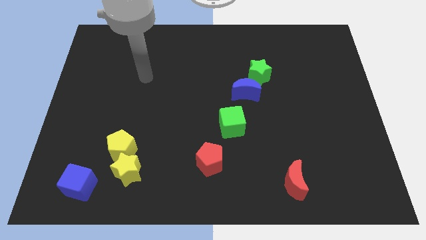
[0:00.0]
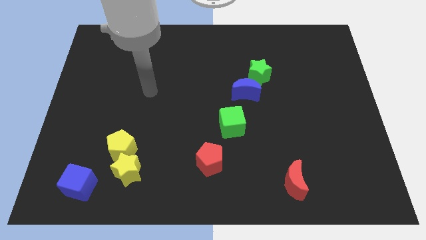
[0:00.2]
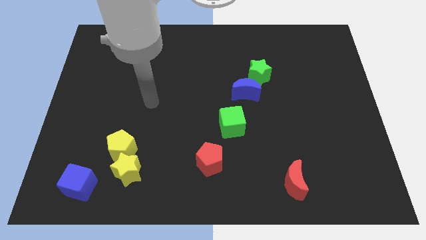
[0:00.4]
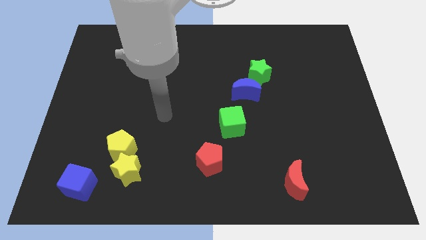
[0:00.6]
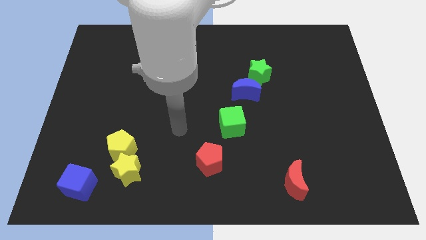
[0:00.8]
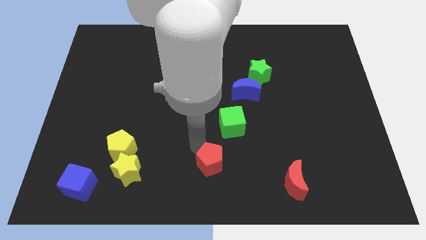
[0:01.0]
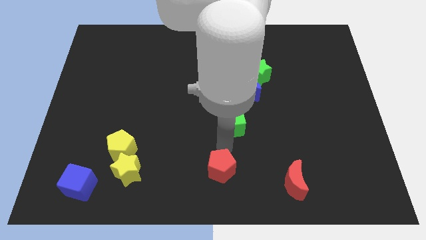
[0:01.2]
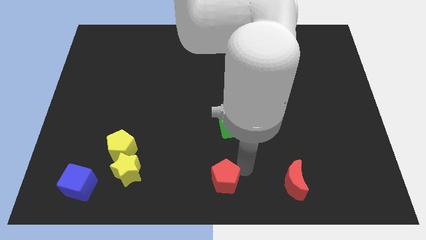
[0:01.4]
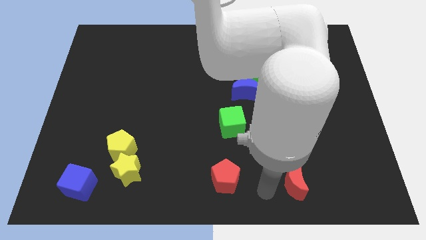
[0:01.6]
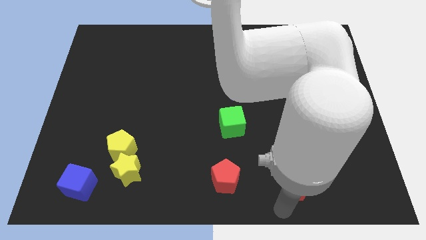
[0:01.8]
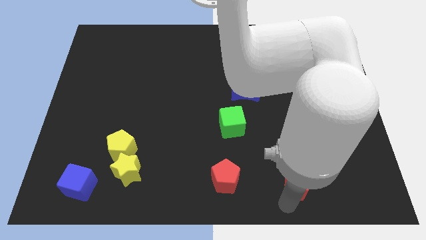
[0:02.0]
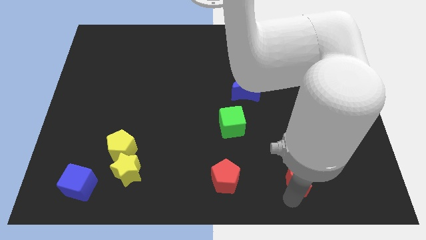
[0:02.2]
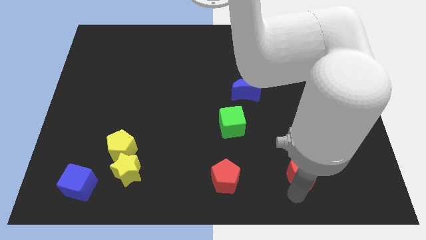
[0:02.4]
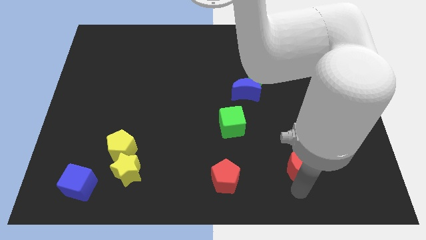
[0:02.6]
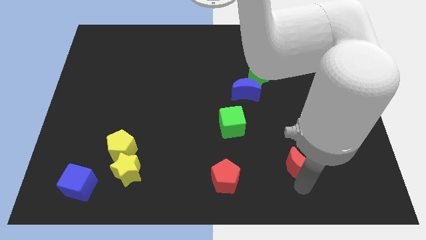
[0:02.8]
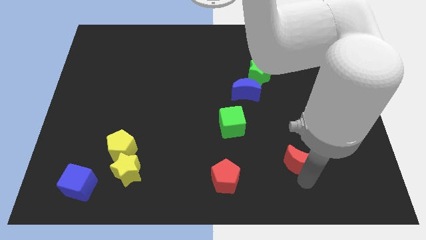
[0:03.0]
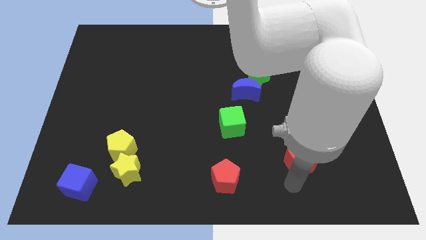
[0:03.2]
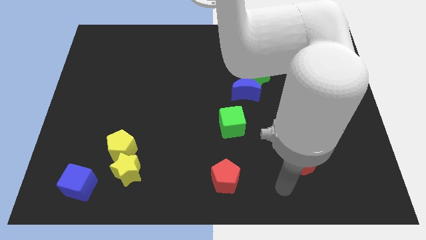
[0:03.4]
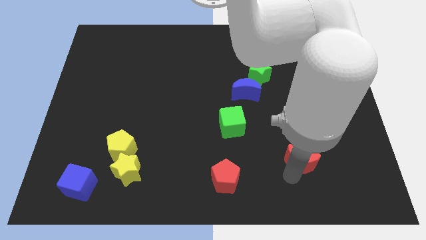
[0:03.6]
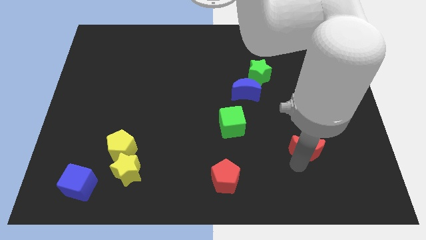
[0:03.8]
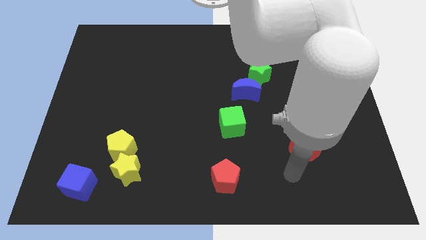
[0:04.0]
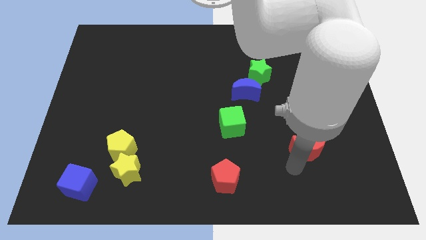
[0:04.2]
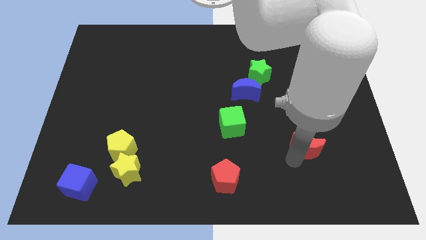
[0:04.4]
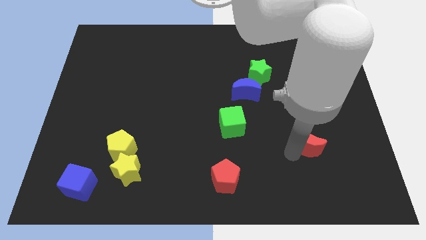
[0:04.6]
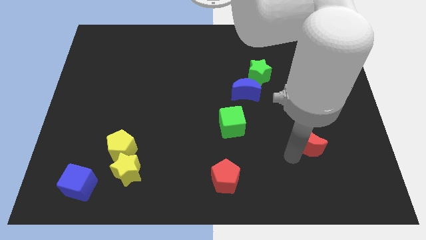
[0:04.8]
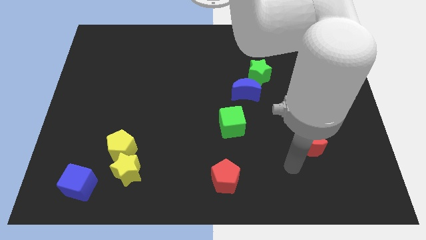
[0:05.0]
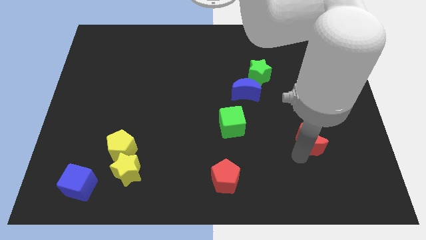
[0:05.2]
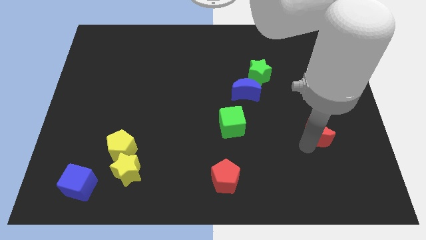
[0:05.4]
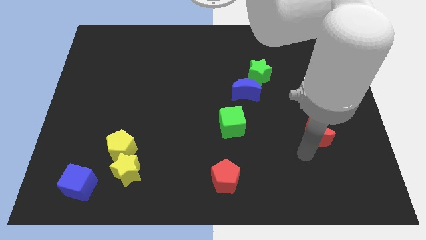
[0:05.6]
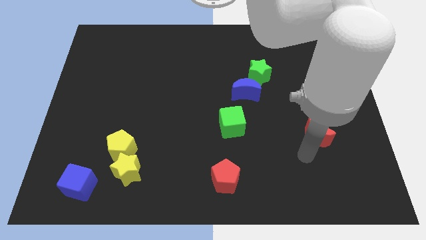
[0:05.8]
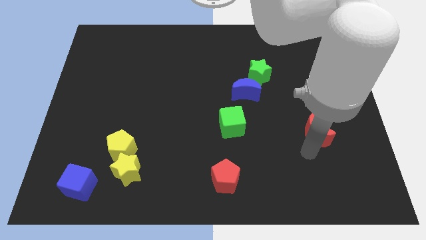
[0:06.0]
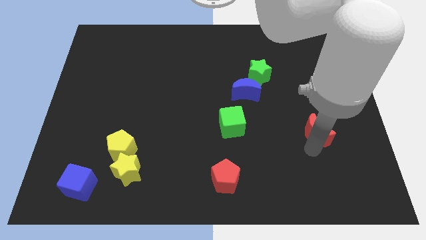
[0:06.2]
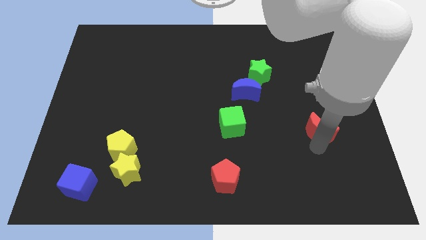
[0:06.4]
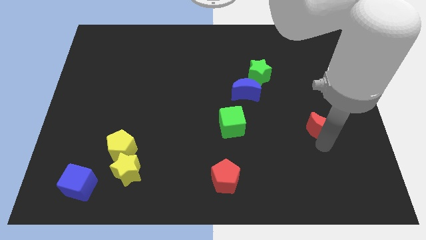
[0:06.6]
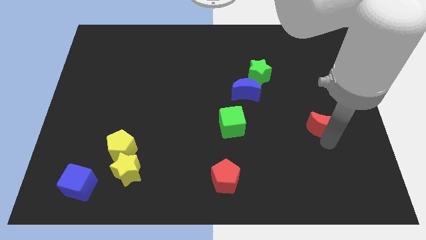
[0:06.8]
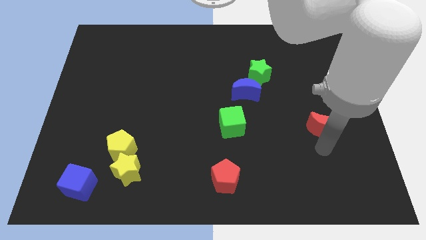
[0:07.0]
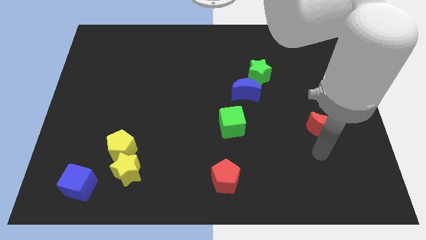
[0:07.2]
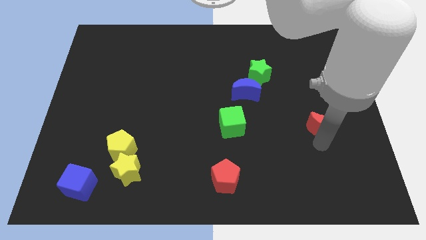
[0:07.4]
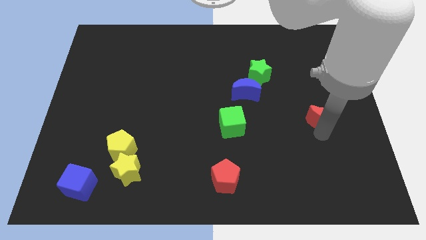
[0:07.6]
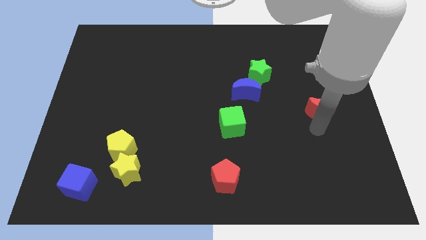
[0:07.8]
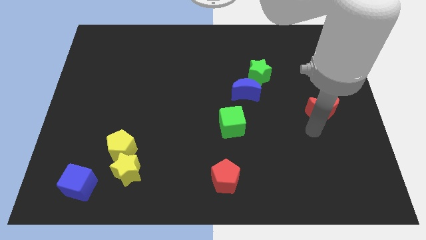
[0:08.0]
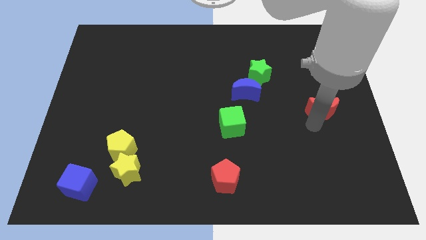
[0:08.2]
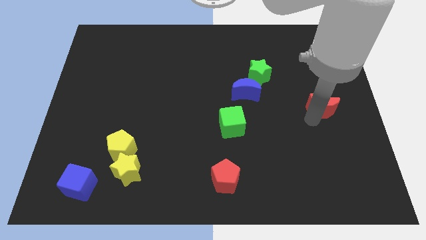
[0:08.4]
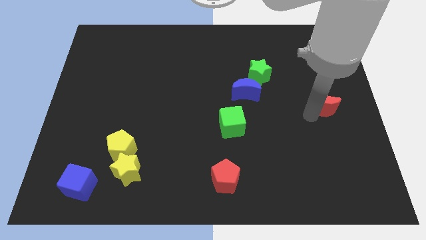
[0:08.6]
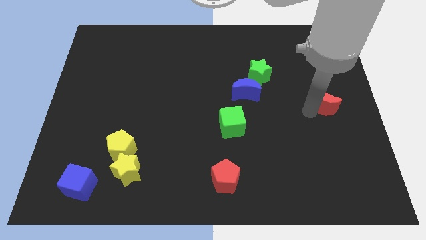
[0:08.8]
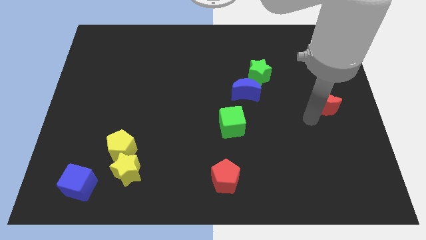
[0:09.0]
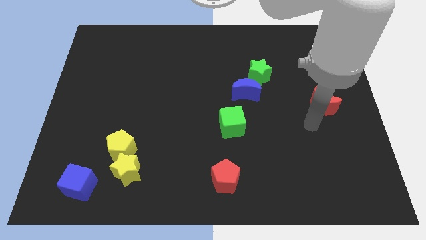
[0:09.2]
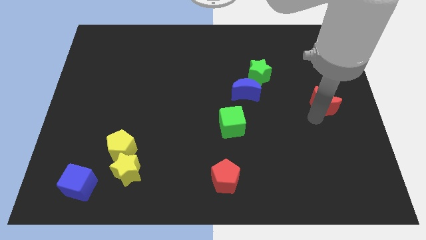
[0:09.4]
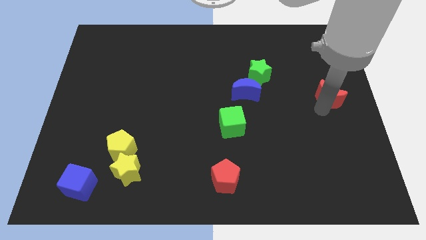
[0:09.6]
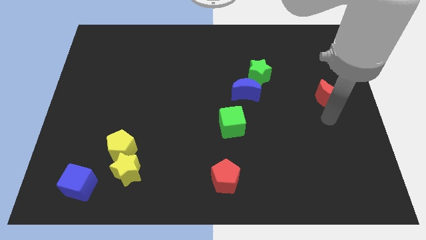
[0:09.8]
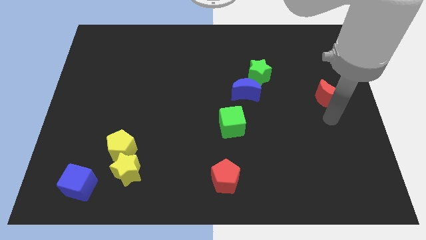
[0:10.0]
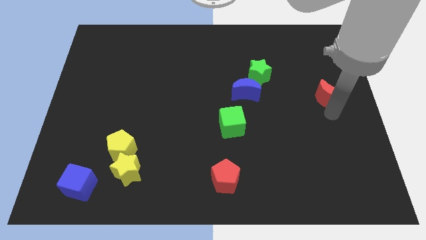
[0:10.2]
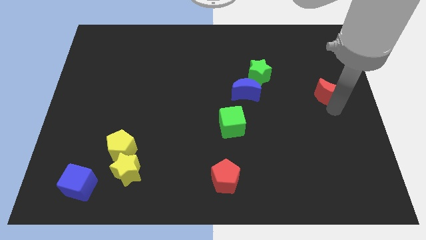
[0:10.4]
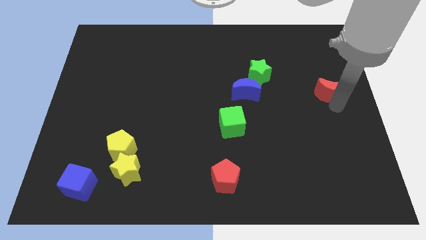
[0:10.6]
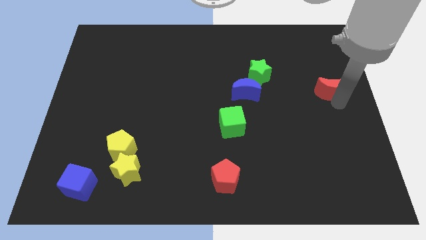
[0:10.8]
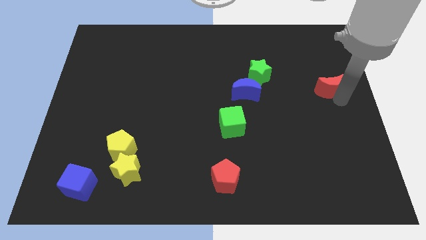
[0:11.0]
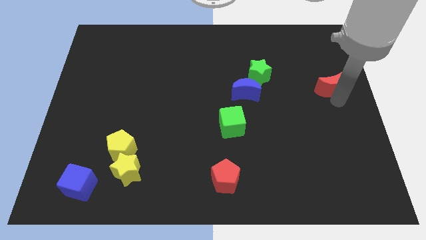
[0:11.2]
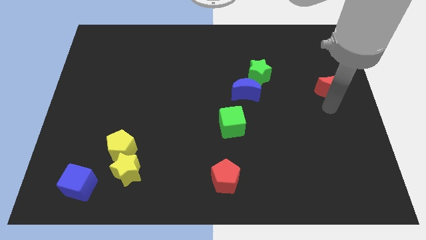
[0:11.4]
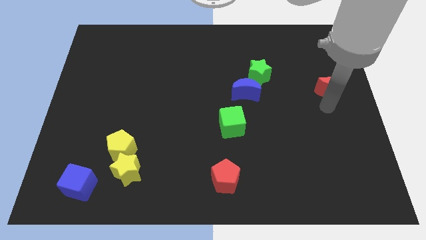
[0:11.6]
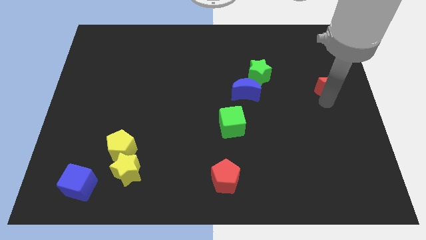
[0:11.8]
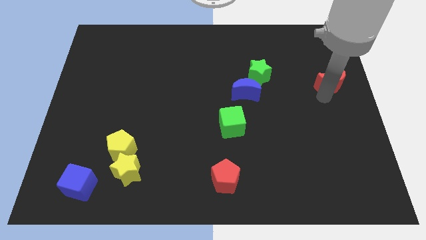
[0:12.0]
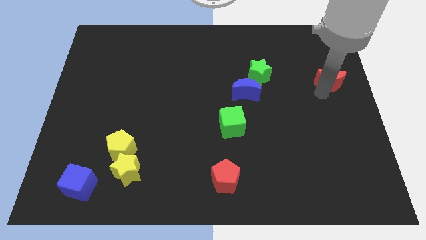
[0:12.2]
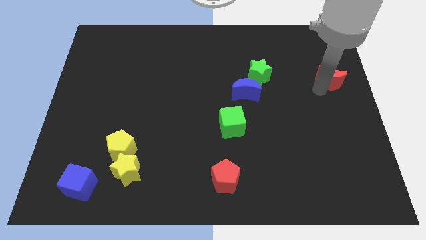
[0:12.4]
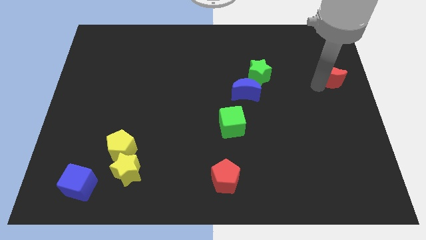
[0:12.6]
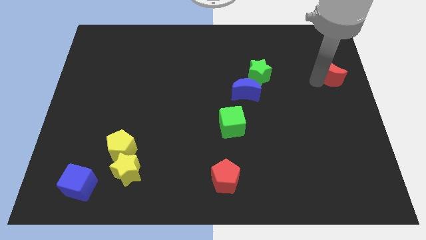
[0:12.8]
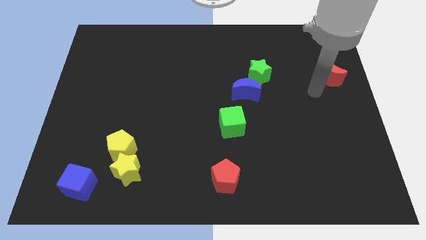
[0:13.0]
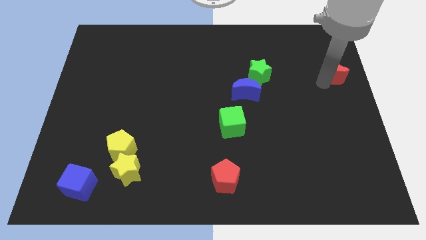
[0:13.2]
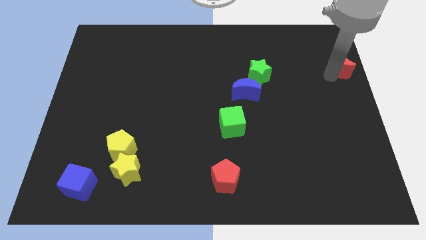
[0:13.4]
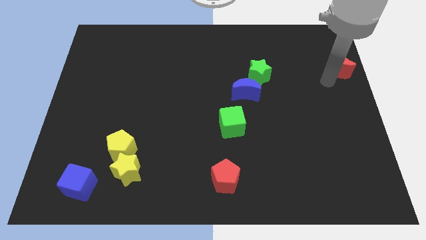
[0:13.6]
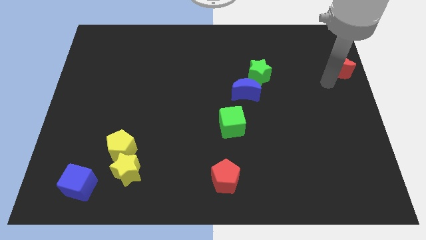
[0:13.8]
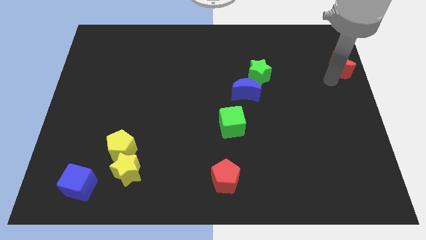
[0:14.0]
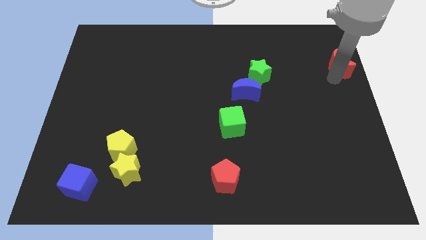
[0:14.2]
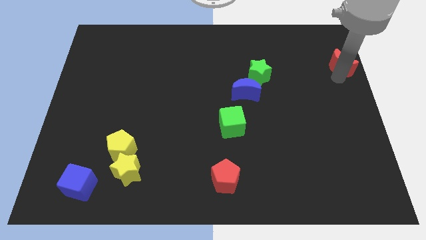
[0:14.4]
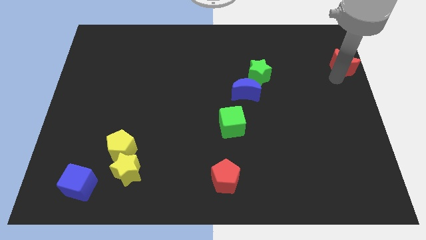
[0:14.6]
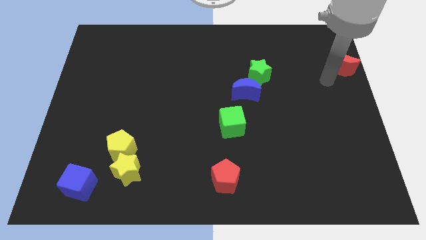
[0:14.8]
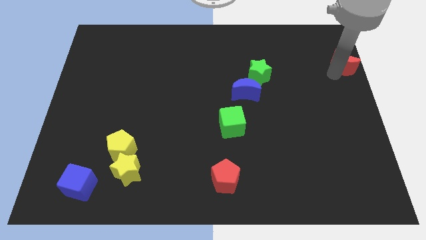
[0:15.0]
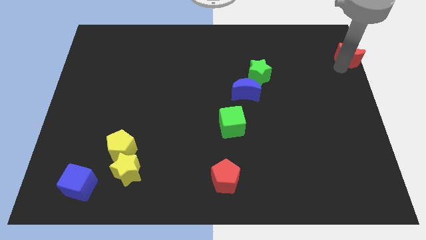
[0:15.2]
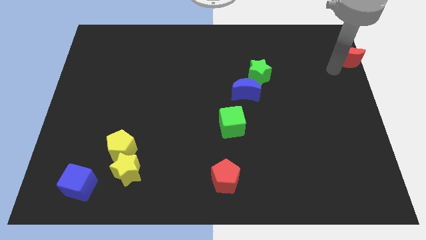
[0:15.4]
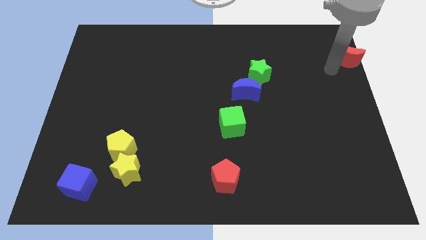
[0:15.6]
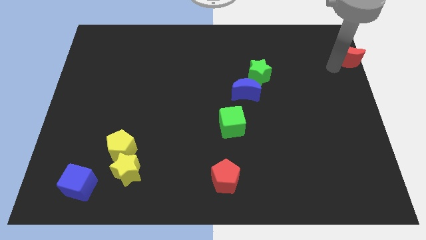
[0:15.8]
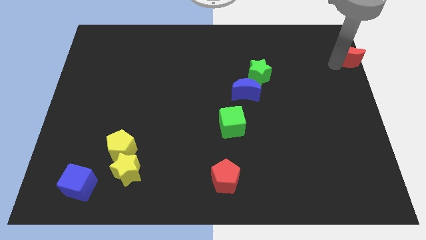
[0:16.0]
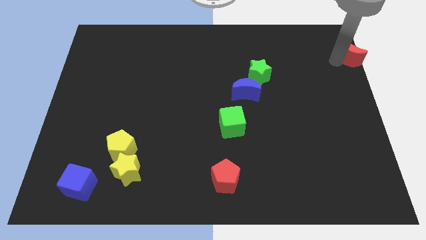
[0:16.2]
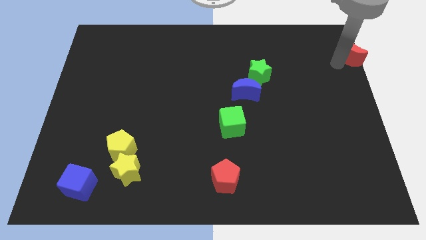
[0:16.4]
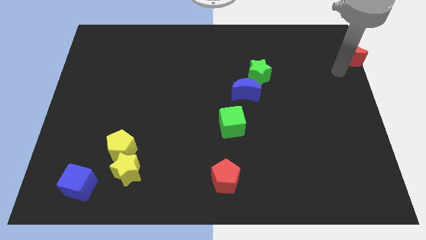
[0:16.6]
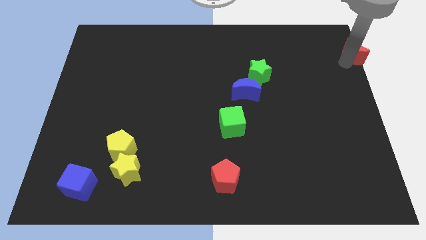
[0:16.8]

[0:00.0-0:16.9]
slide the red moon to the top right
